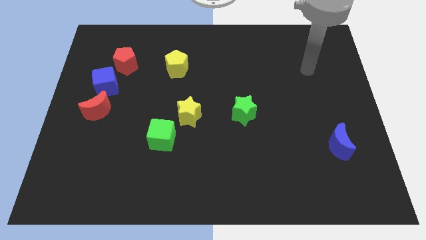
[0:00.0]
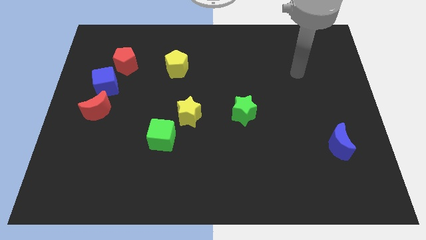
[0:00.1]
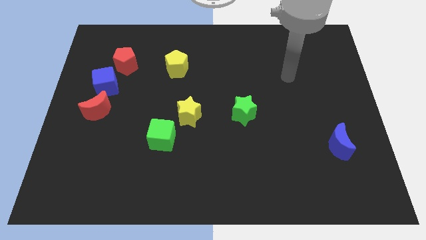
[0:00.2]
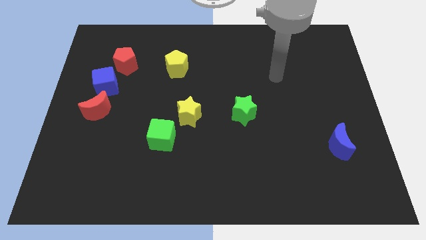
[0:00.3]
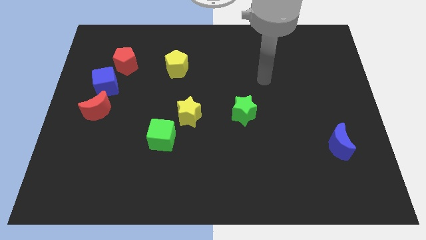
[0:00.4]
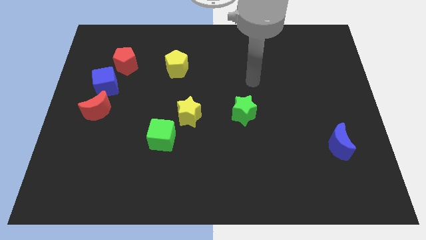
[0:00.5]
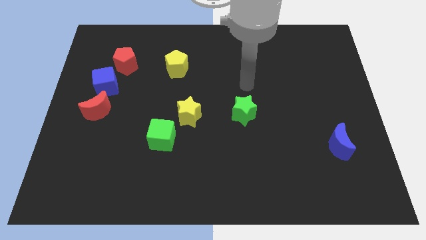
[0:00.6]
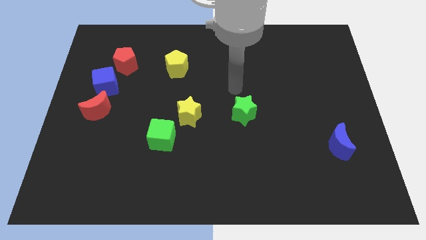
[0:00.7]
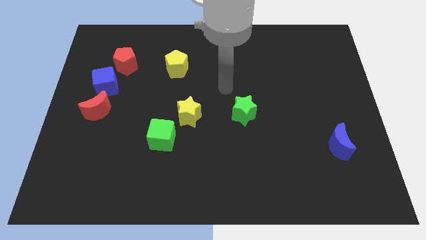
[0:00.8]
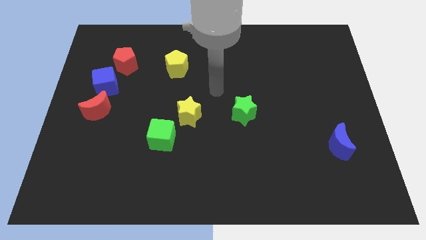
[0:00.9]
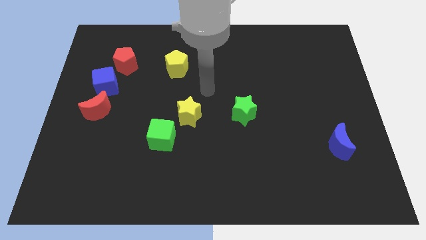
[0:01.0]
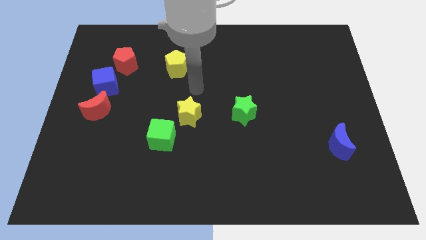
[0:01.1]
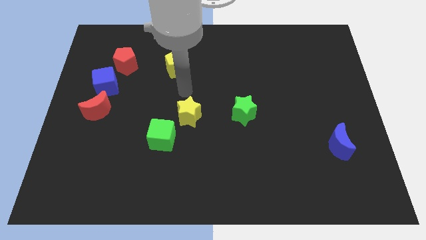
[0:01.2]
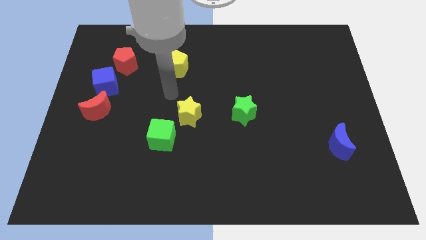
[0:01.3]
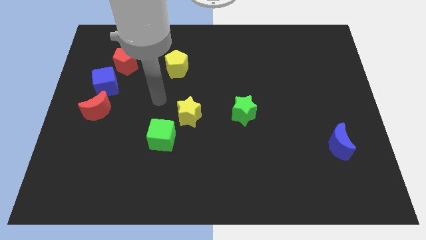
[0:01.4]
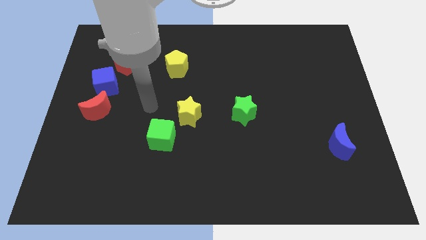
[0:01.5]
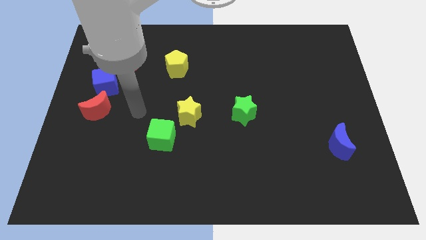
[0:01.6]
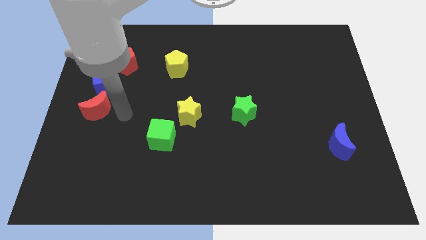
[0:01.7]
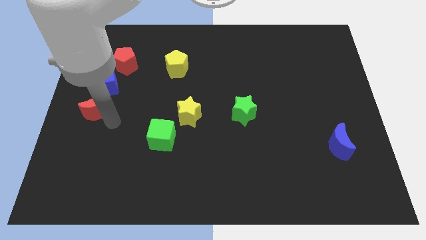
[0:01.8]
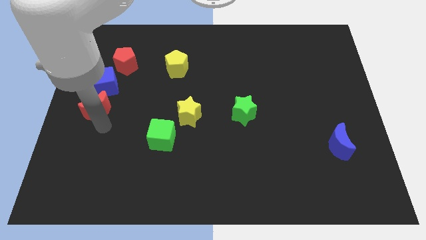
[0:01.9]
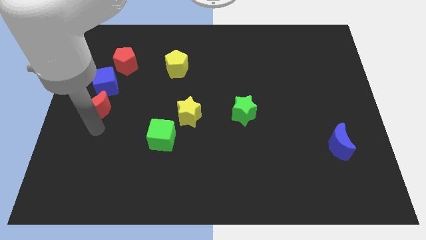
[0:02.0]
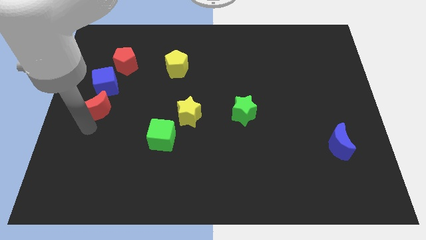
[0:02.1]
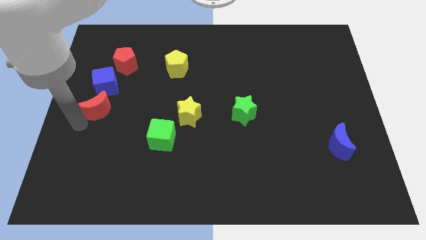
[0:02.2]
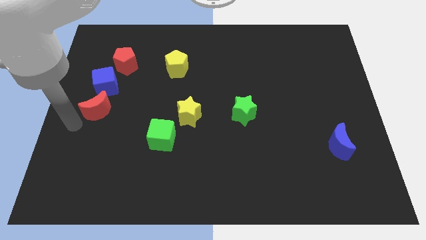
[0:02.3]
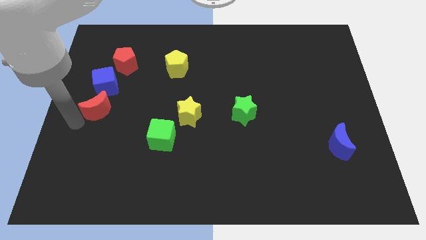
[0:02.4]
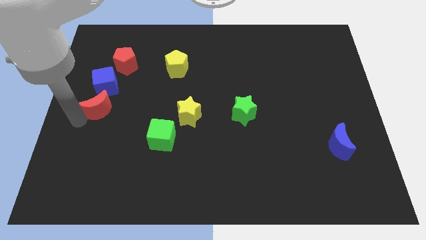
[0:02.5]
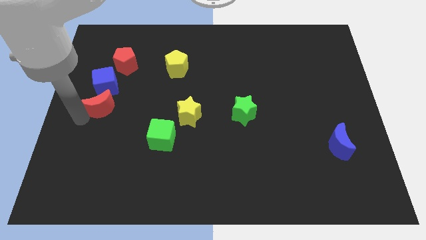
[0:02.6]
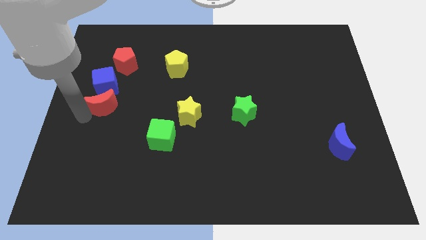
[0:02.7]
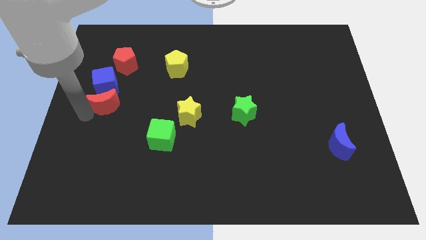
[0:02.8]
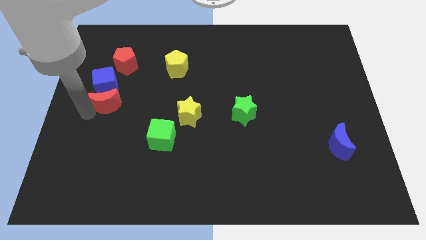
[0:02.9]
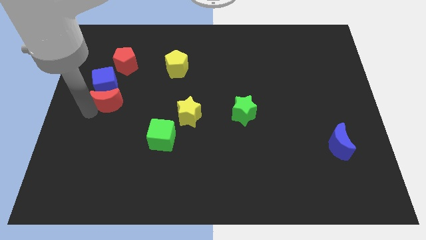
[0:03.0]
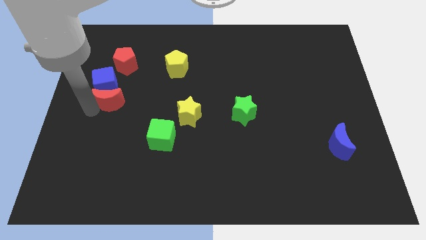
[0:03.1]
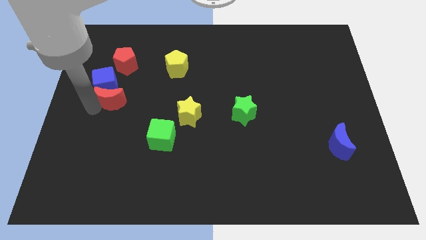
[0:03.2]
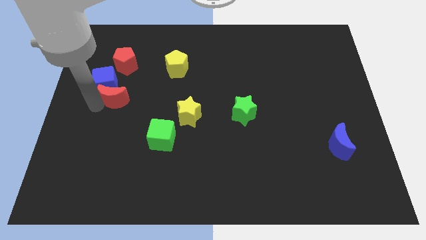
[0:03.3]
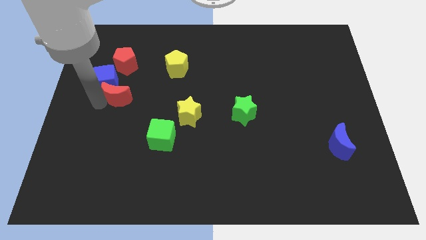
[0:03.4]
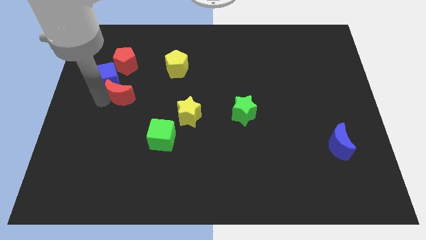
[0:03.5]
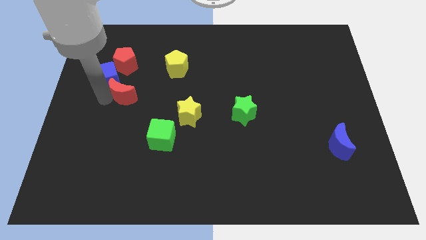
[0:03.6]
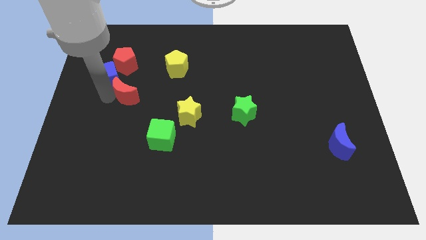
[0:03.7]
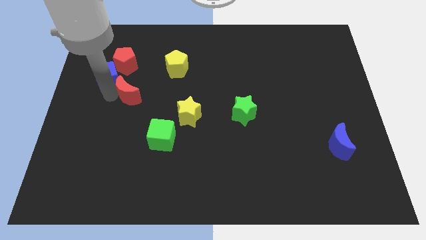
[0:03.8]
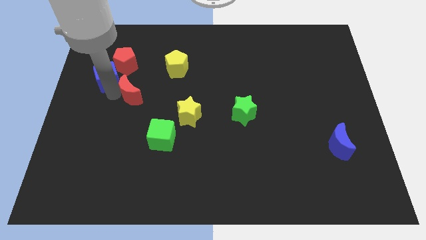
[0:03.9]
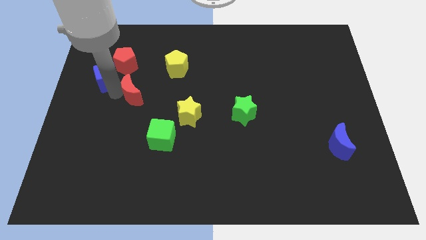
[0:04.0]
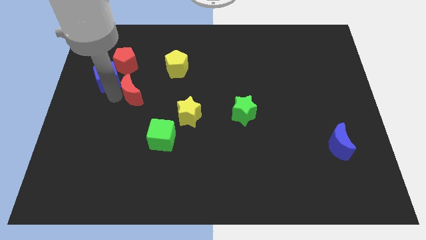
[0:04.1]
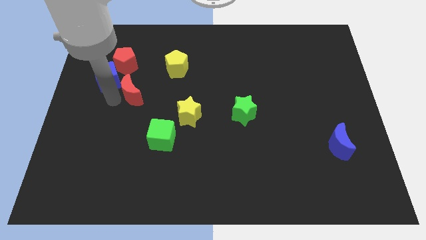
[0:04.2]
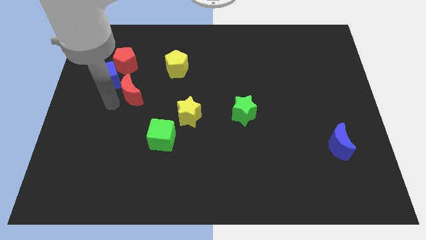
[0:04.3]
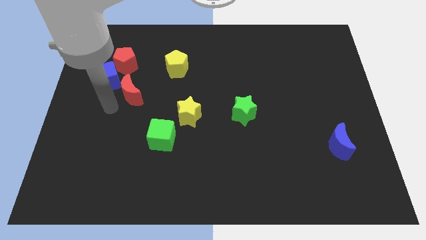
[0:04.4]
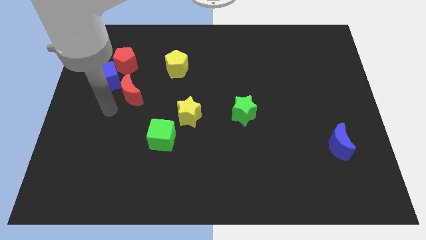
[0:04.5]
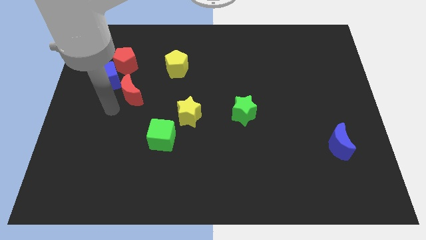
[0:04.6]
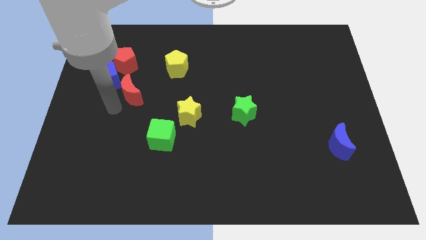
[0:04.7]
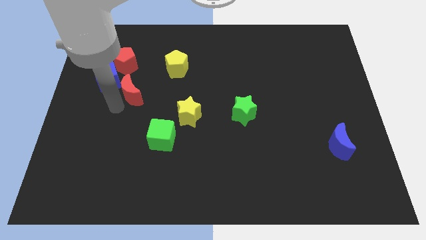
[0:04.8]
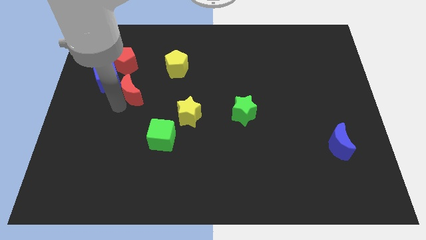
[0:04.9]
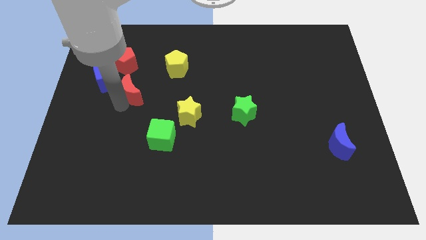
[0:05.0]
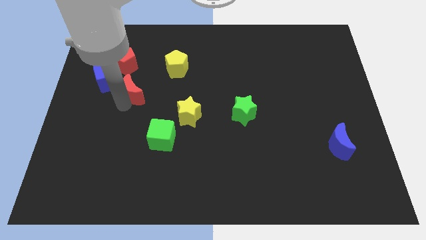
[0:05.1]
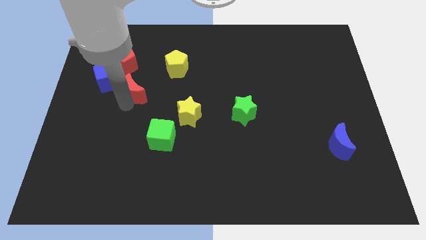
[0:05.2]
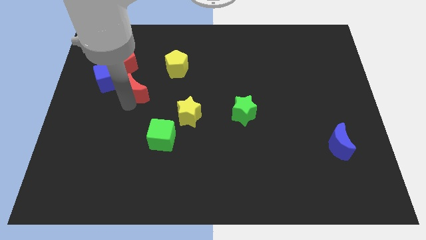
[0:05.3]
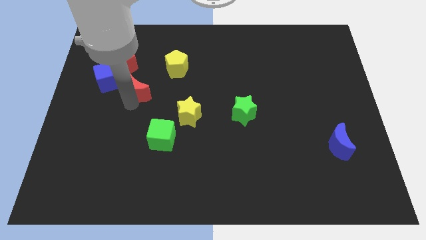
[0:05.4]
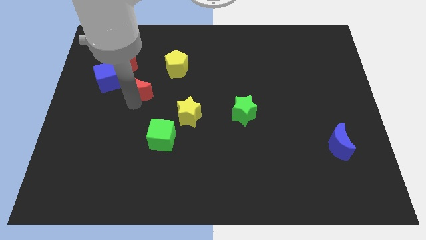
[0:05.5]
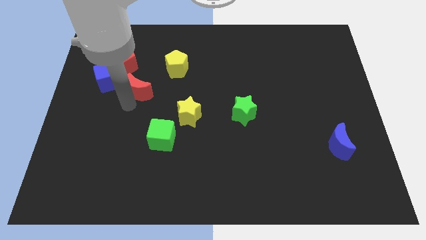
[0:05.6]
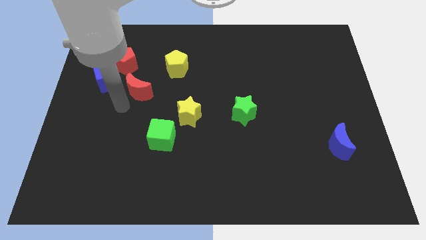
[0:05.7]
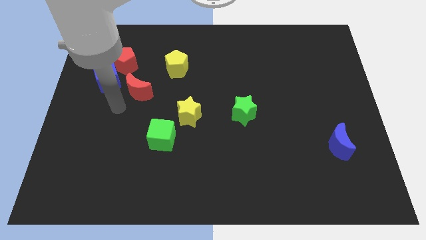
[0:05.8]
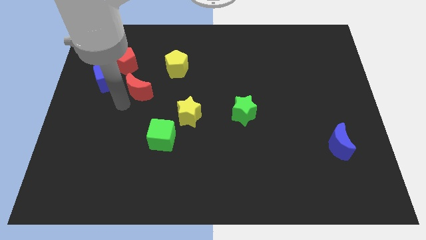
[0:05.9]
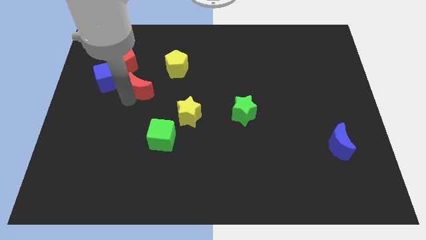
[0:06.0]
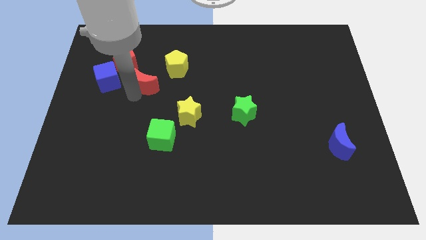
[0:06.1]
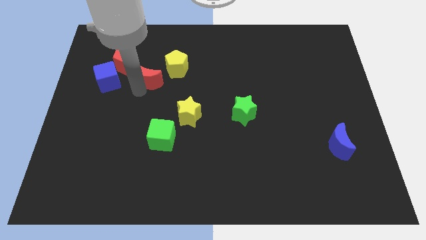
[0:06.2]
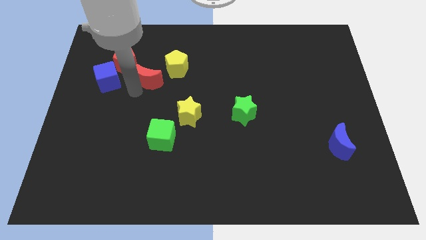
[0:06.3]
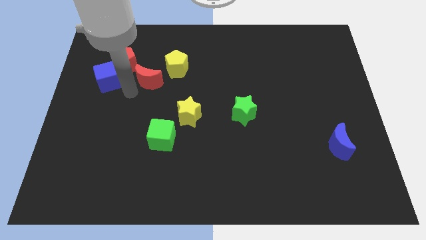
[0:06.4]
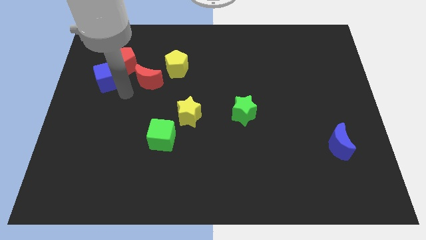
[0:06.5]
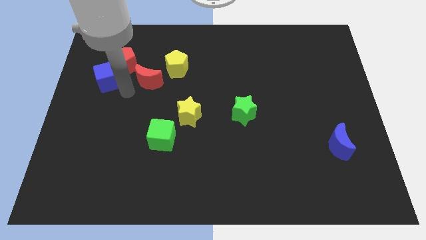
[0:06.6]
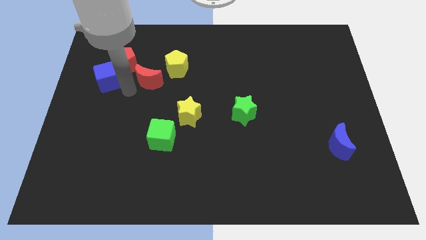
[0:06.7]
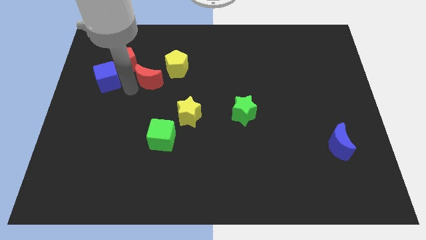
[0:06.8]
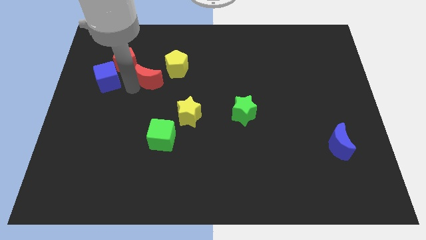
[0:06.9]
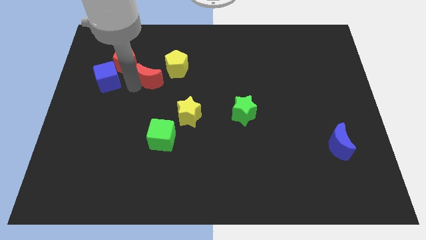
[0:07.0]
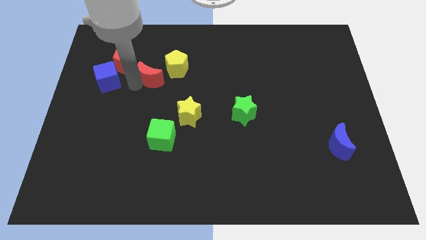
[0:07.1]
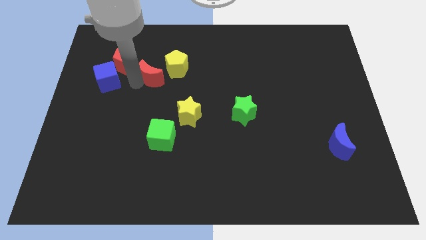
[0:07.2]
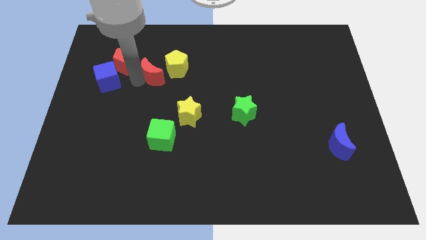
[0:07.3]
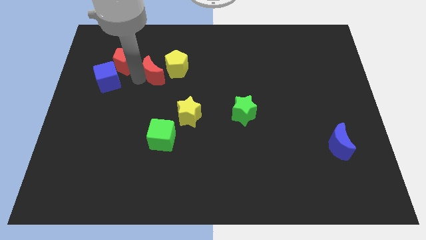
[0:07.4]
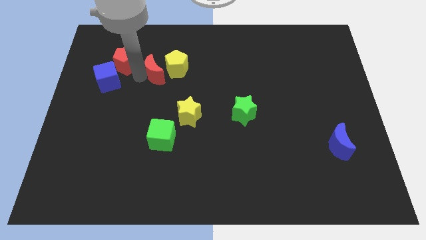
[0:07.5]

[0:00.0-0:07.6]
slide the red moon next to the yellow pentagon
